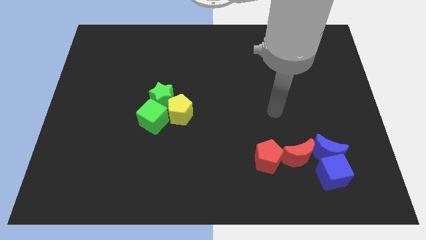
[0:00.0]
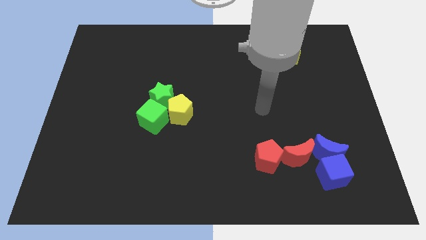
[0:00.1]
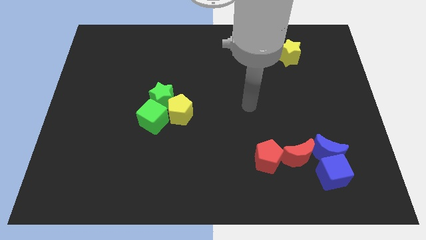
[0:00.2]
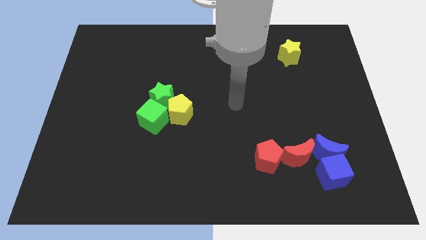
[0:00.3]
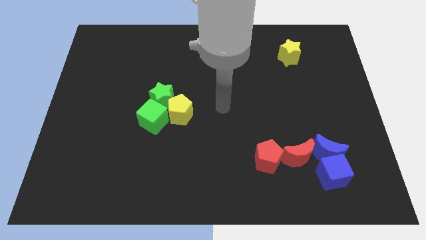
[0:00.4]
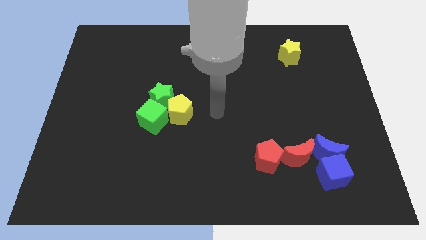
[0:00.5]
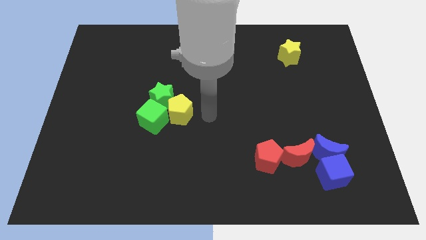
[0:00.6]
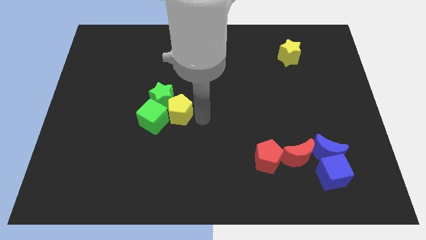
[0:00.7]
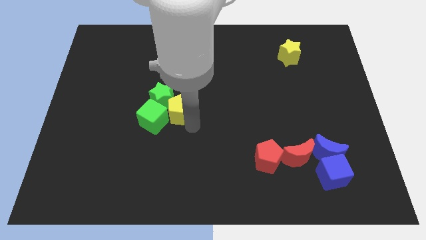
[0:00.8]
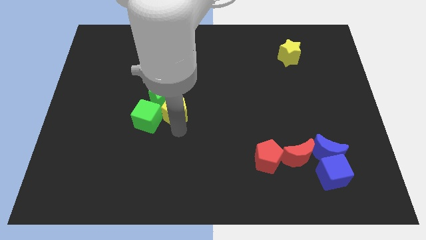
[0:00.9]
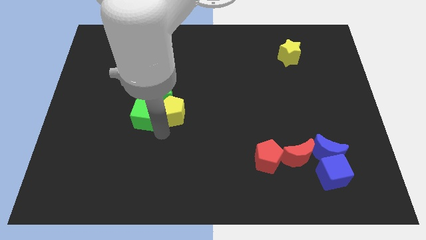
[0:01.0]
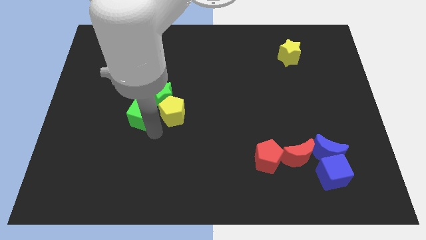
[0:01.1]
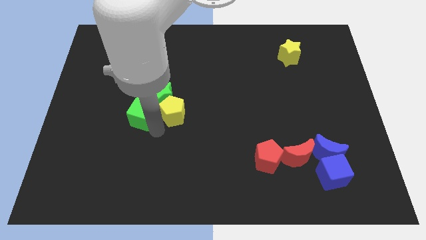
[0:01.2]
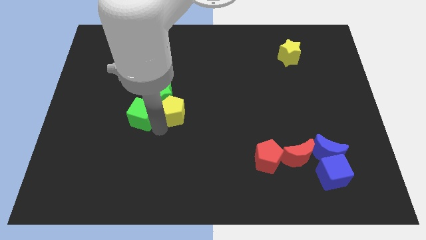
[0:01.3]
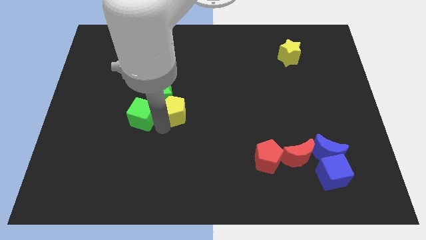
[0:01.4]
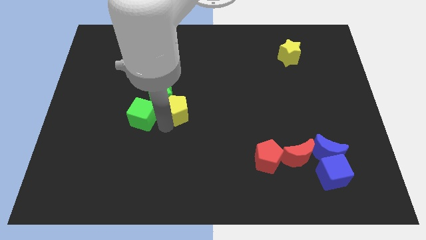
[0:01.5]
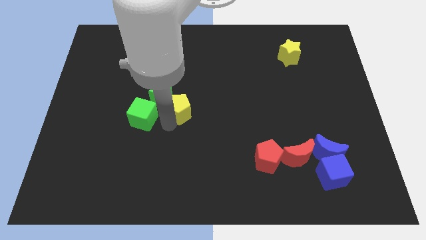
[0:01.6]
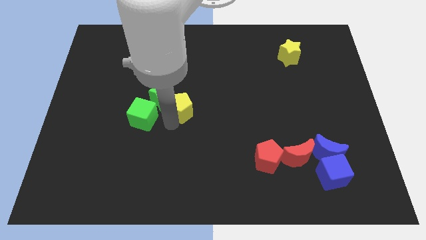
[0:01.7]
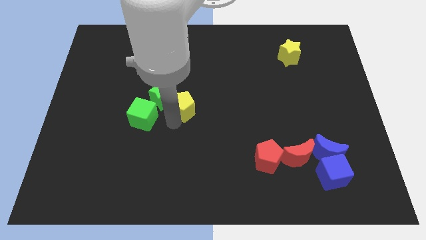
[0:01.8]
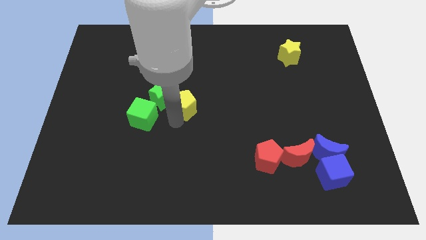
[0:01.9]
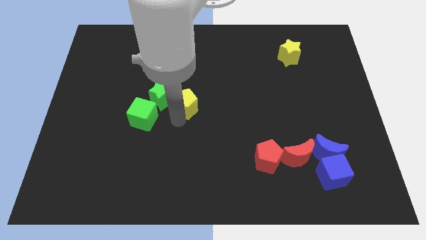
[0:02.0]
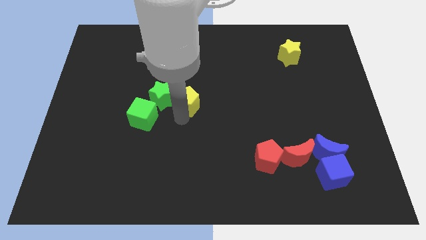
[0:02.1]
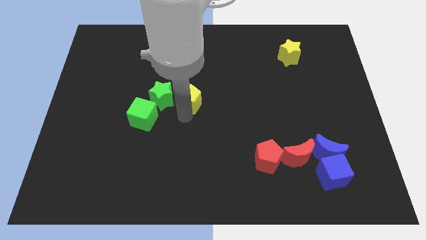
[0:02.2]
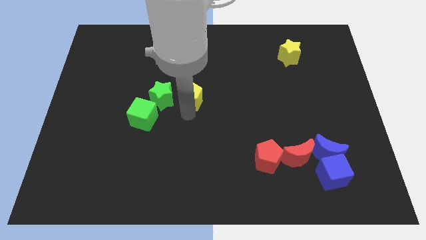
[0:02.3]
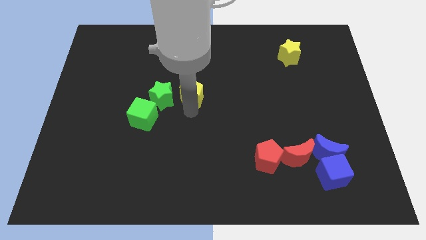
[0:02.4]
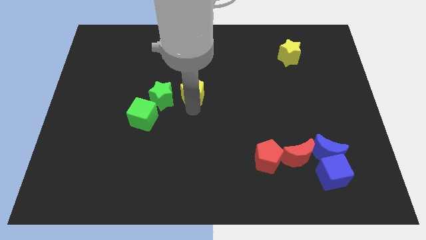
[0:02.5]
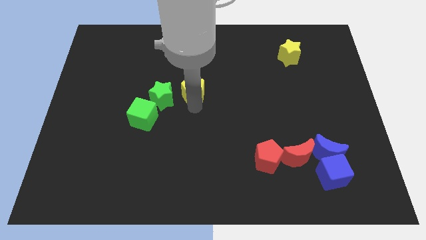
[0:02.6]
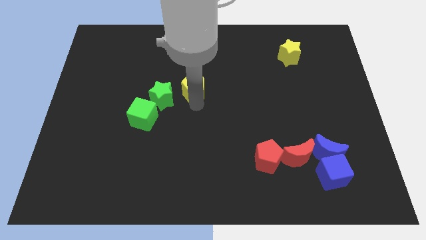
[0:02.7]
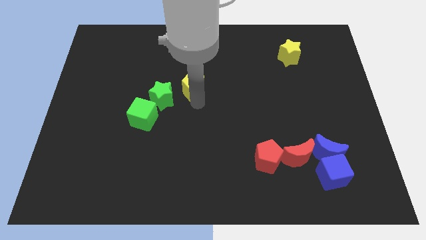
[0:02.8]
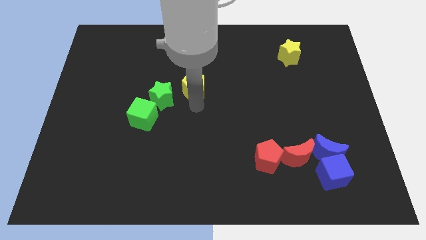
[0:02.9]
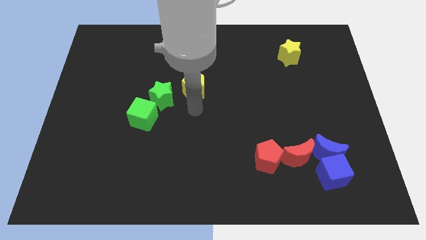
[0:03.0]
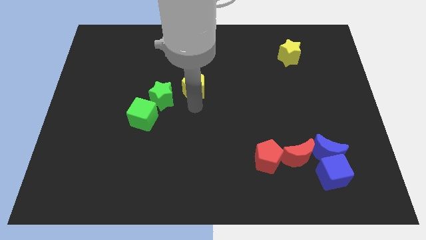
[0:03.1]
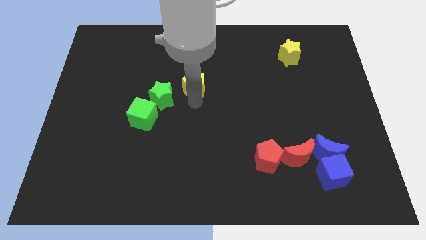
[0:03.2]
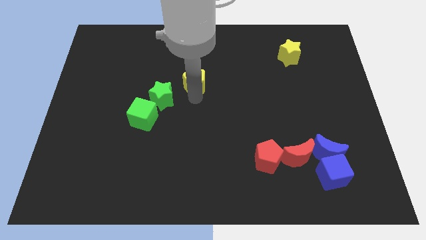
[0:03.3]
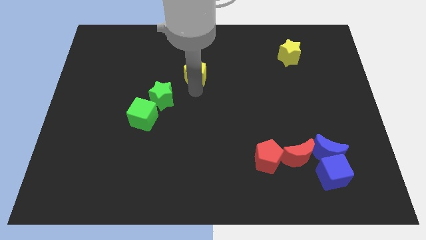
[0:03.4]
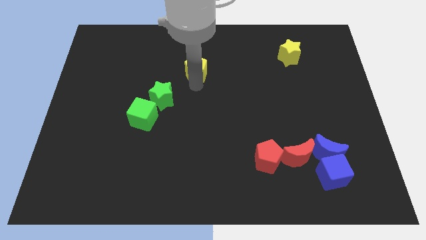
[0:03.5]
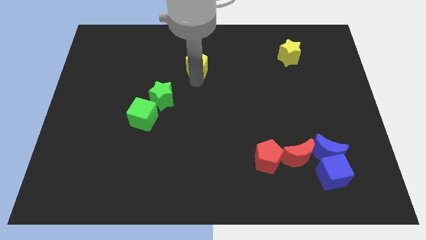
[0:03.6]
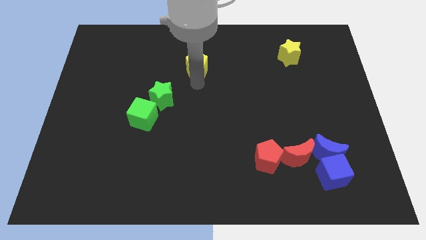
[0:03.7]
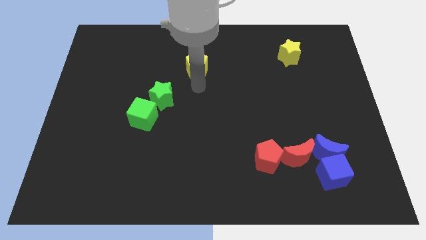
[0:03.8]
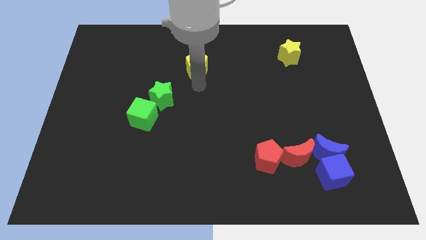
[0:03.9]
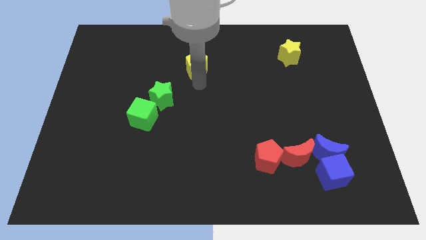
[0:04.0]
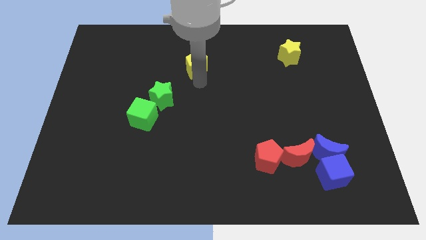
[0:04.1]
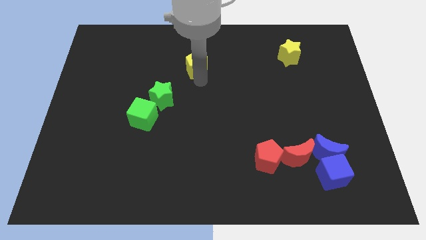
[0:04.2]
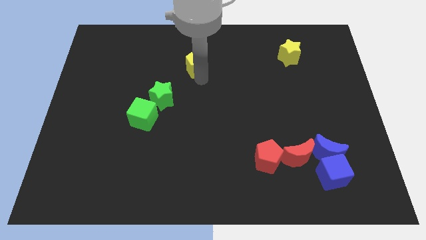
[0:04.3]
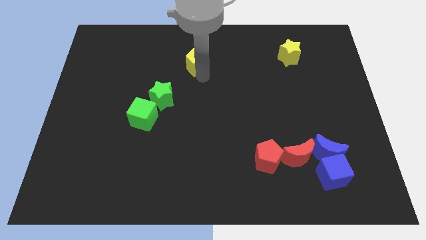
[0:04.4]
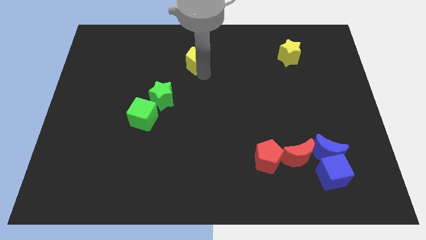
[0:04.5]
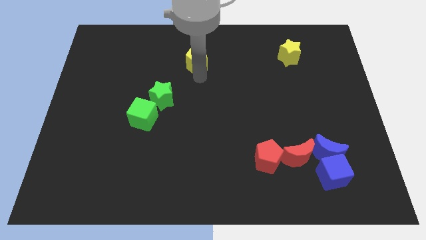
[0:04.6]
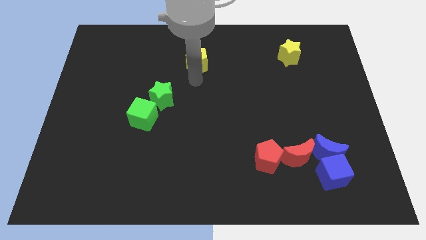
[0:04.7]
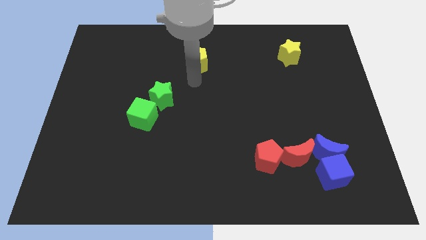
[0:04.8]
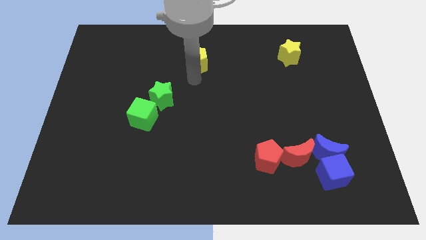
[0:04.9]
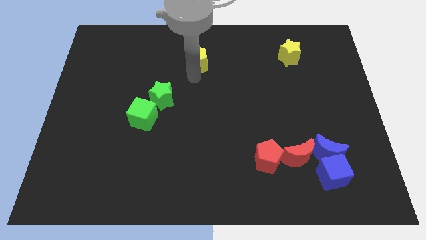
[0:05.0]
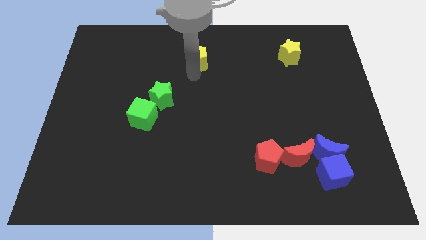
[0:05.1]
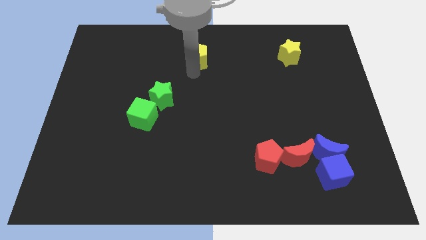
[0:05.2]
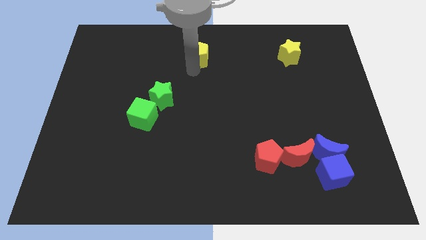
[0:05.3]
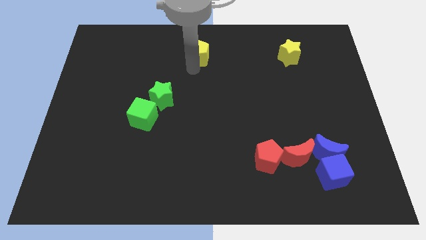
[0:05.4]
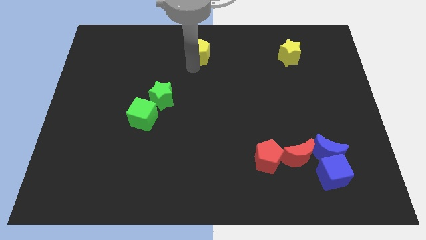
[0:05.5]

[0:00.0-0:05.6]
move the yellow pentagon to the towards your base

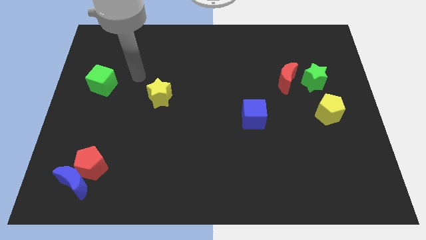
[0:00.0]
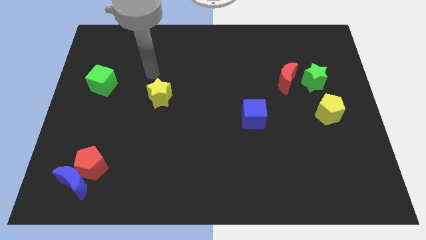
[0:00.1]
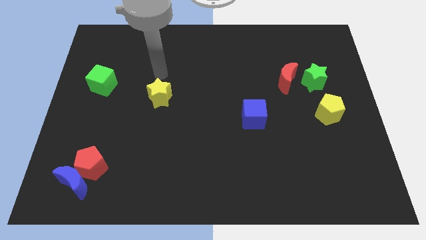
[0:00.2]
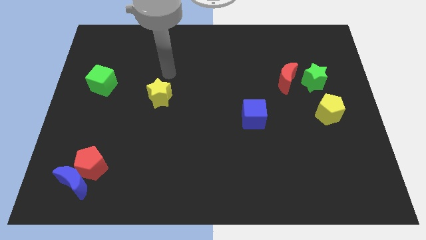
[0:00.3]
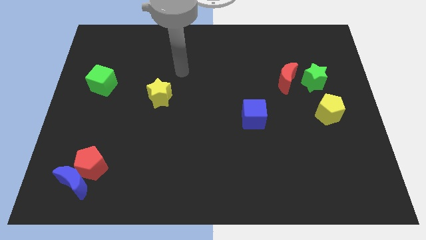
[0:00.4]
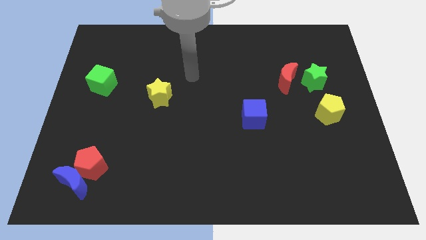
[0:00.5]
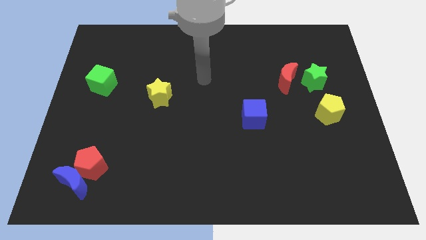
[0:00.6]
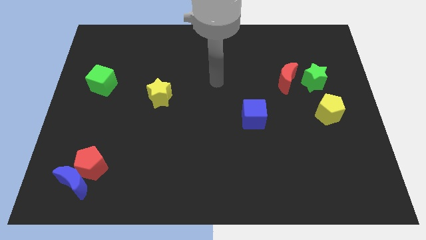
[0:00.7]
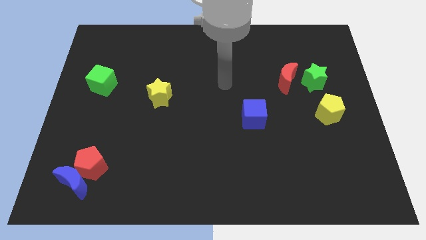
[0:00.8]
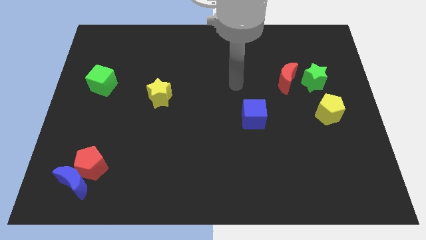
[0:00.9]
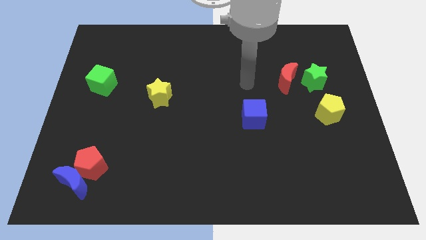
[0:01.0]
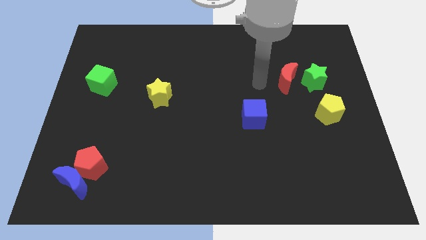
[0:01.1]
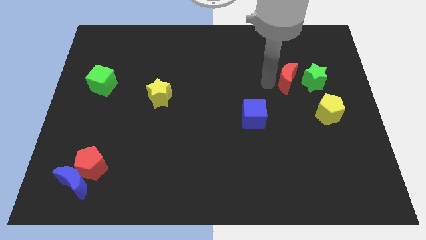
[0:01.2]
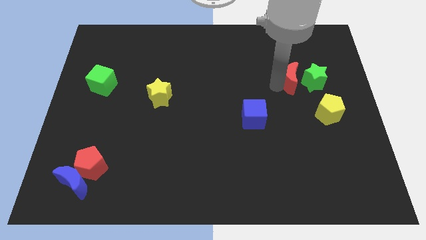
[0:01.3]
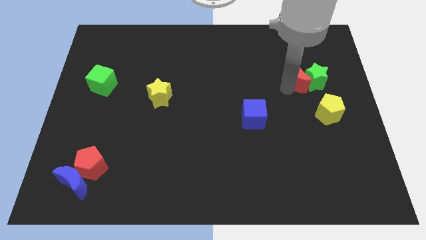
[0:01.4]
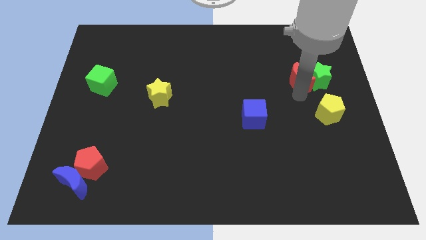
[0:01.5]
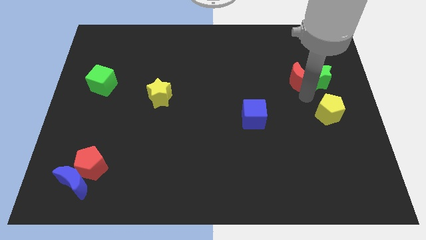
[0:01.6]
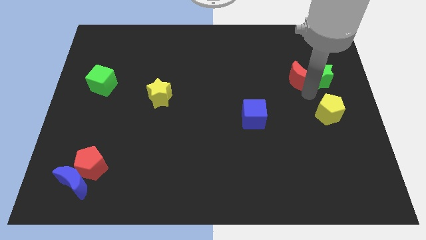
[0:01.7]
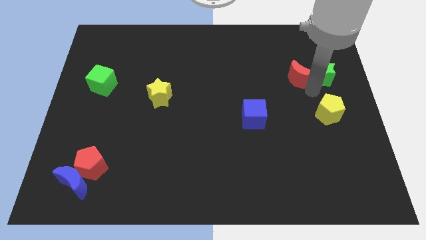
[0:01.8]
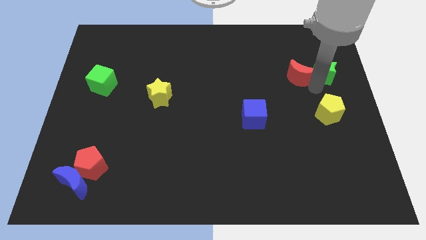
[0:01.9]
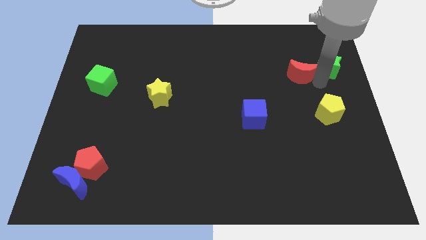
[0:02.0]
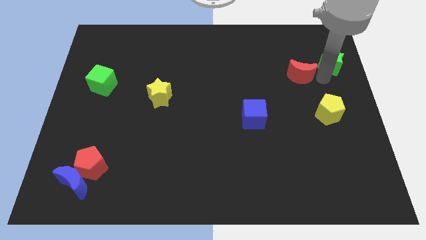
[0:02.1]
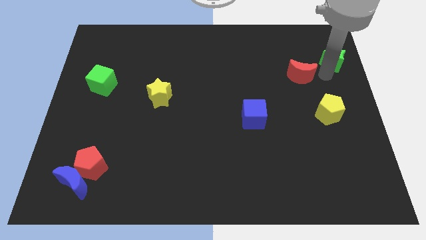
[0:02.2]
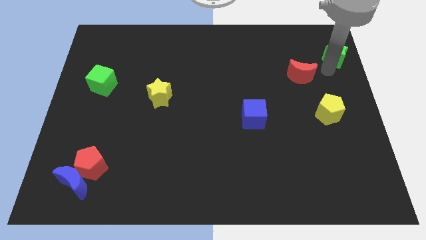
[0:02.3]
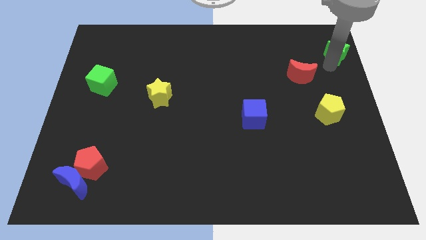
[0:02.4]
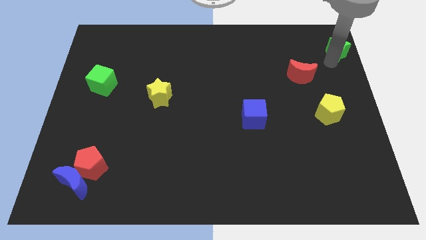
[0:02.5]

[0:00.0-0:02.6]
move the green star to the upper right corner
